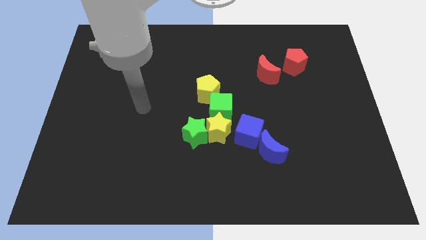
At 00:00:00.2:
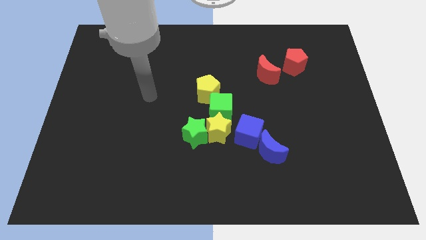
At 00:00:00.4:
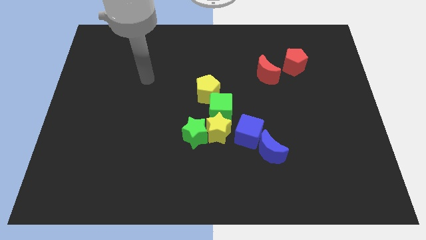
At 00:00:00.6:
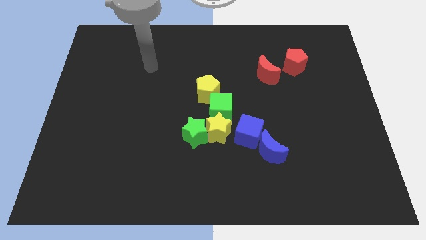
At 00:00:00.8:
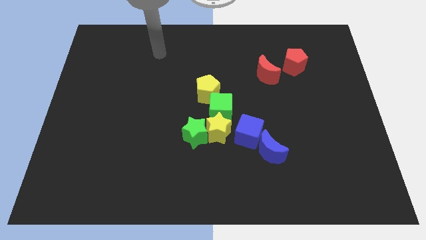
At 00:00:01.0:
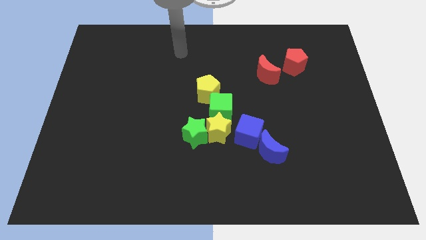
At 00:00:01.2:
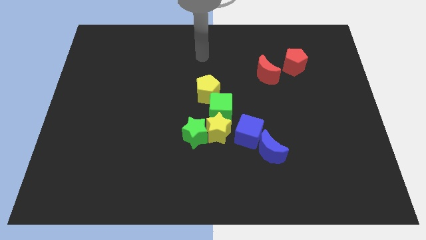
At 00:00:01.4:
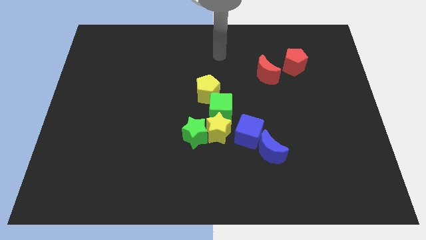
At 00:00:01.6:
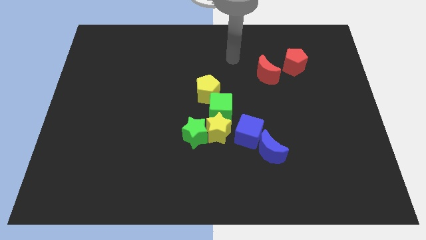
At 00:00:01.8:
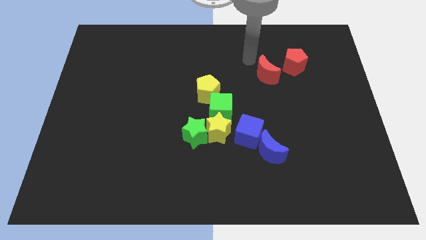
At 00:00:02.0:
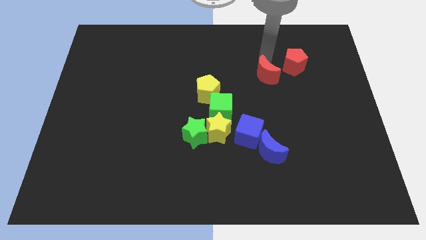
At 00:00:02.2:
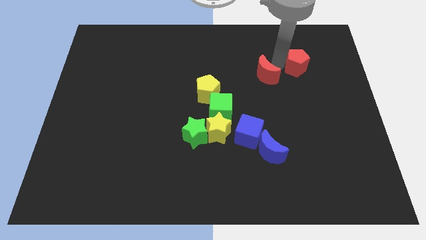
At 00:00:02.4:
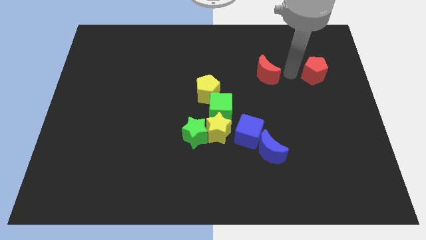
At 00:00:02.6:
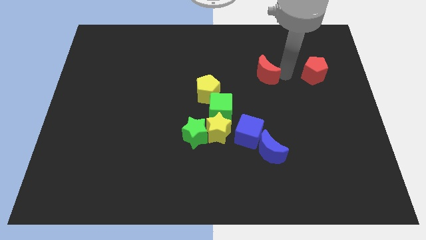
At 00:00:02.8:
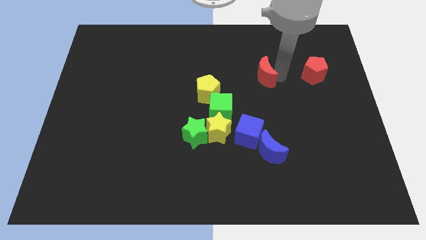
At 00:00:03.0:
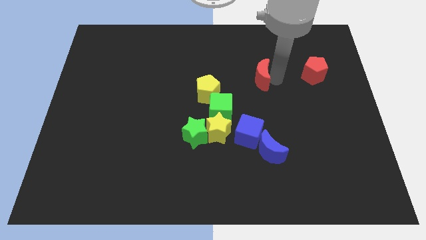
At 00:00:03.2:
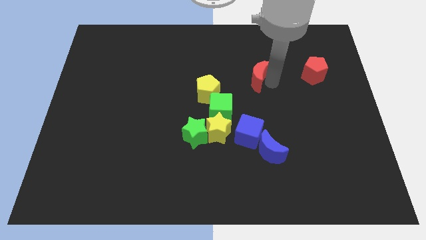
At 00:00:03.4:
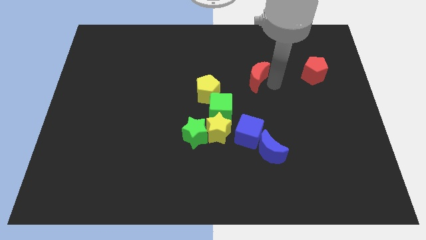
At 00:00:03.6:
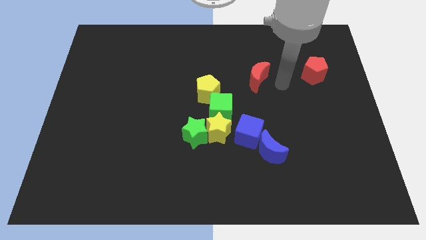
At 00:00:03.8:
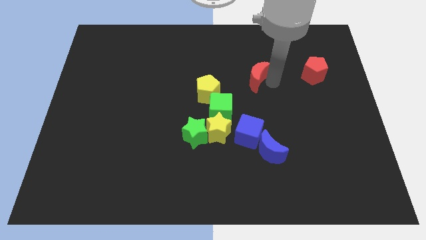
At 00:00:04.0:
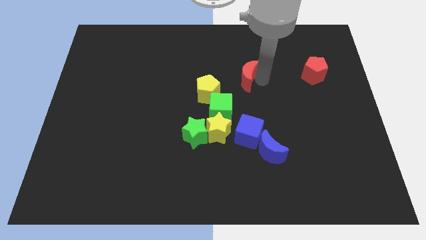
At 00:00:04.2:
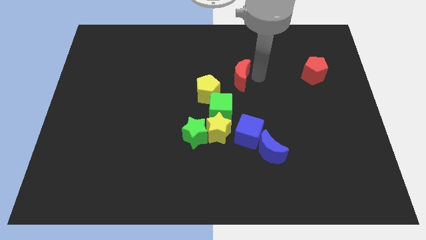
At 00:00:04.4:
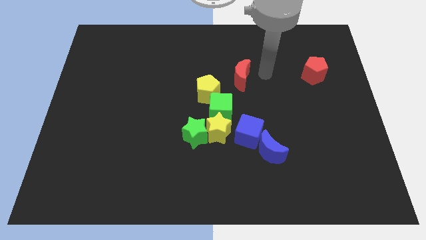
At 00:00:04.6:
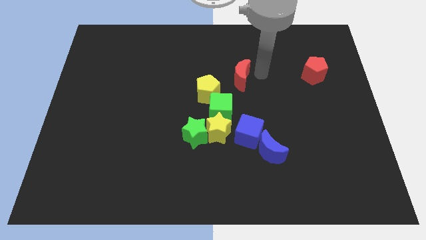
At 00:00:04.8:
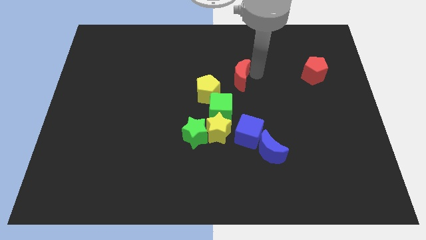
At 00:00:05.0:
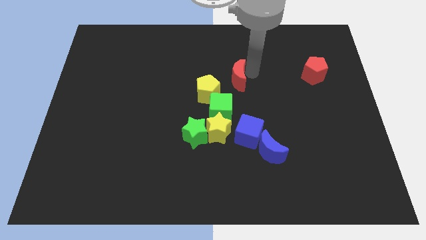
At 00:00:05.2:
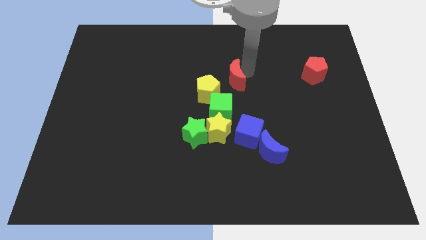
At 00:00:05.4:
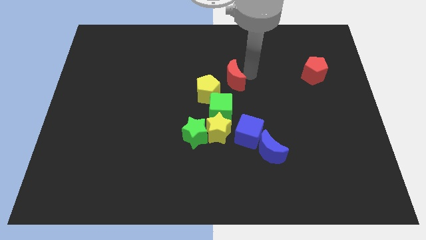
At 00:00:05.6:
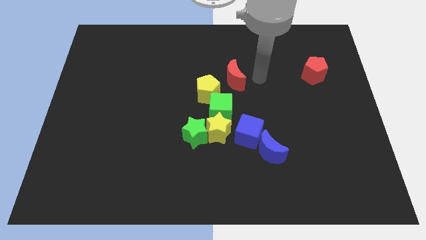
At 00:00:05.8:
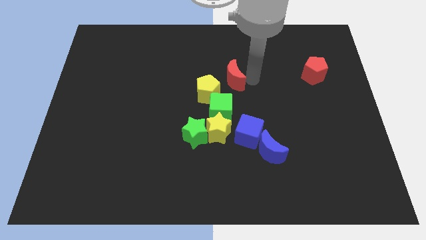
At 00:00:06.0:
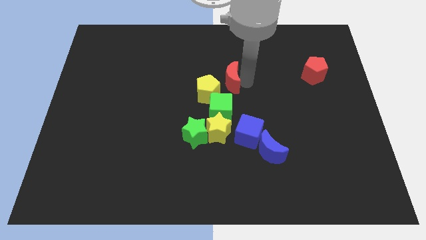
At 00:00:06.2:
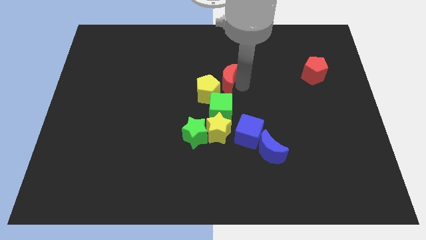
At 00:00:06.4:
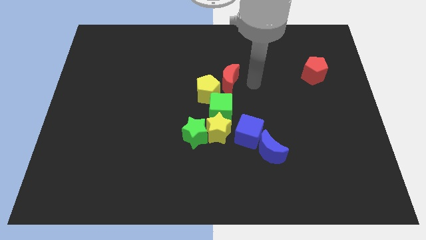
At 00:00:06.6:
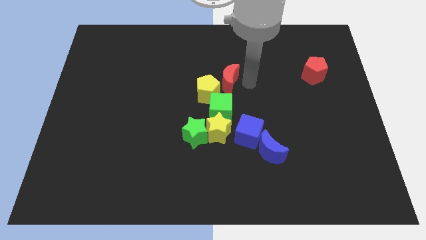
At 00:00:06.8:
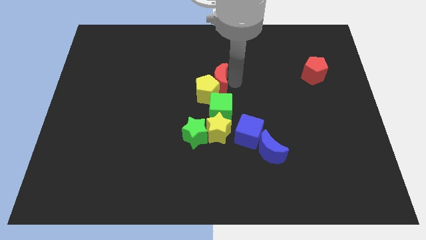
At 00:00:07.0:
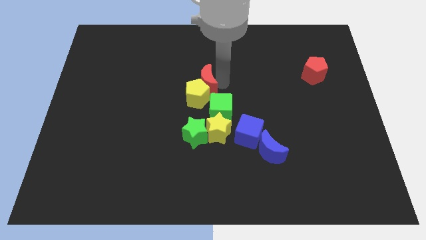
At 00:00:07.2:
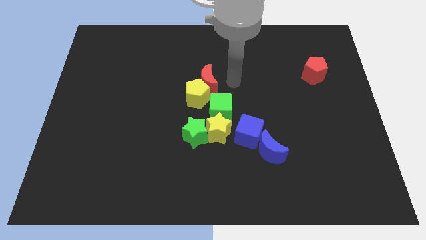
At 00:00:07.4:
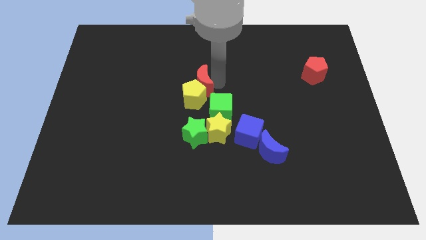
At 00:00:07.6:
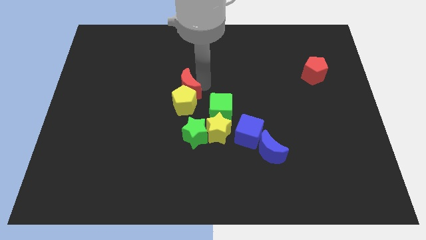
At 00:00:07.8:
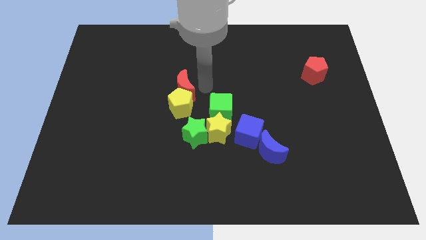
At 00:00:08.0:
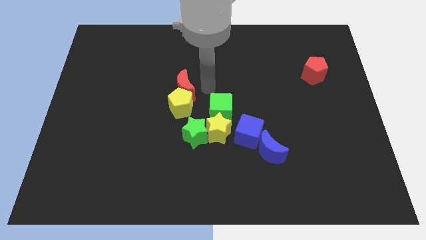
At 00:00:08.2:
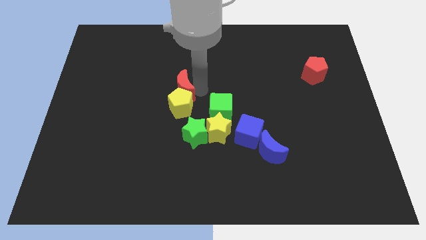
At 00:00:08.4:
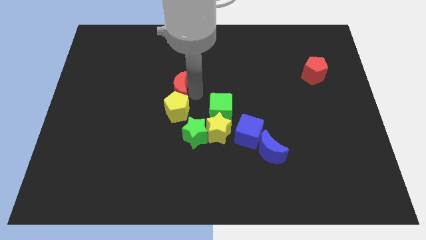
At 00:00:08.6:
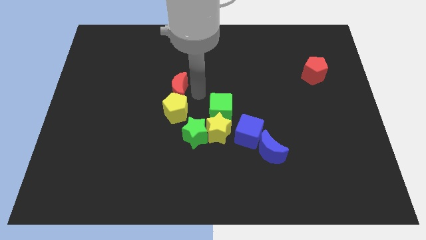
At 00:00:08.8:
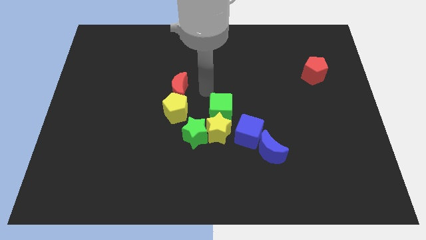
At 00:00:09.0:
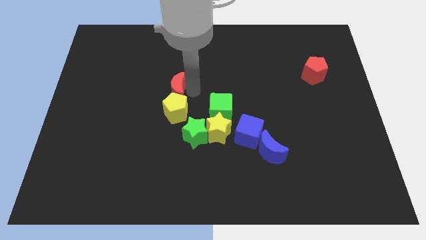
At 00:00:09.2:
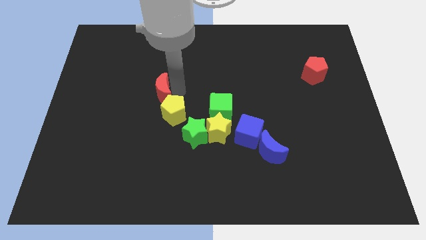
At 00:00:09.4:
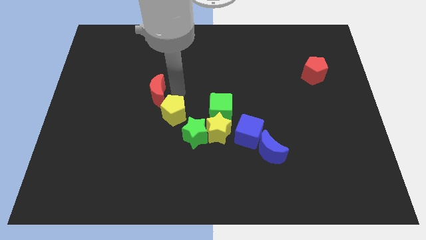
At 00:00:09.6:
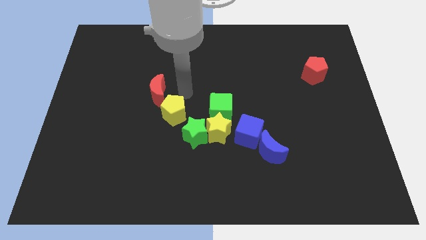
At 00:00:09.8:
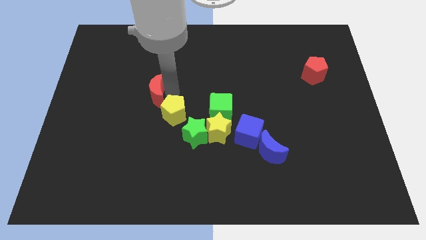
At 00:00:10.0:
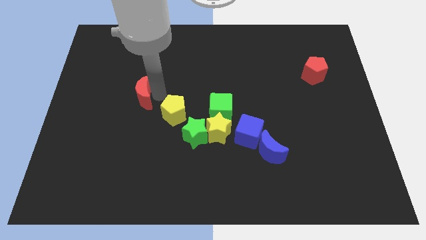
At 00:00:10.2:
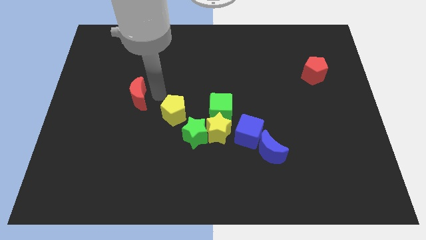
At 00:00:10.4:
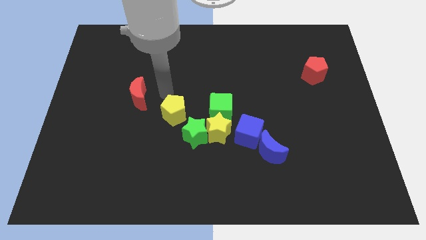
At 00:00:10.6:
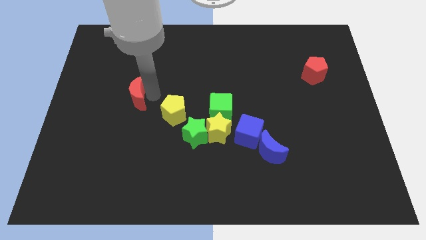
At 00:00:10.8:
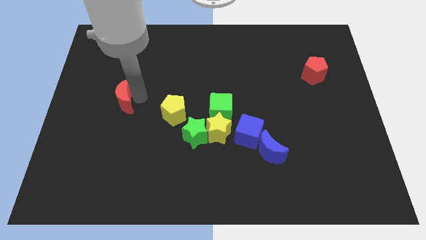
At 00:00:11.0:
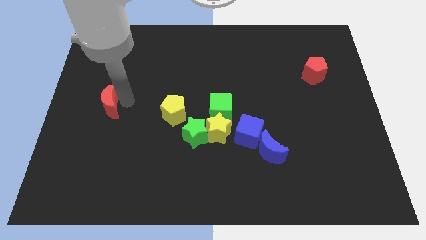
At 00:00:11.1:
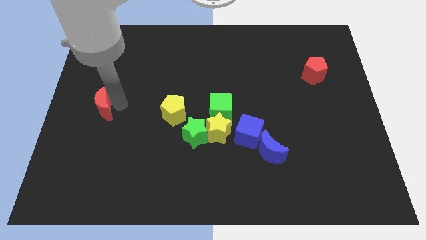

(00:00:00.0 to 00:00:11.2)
push the red moon to the left side of the board
